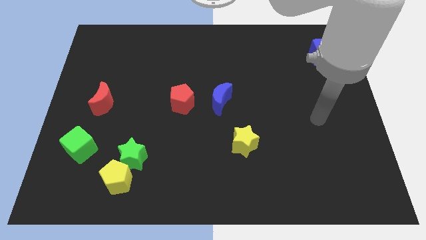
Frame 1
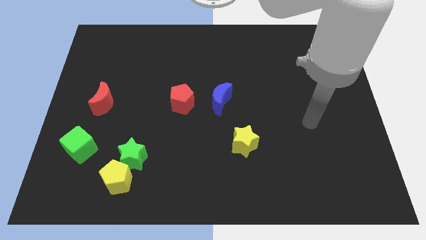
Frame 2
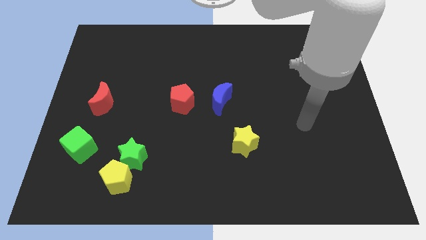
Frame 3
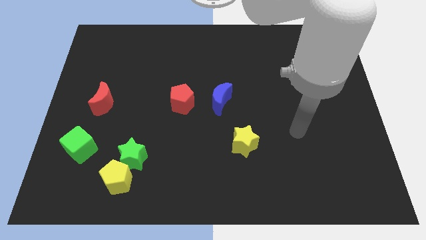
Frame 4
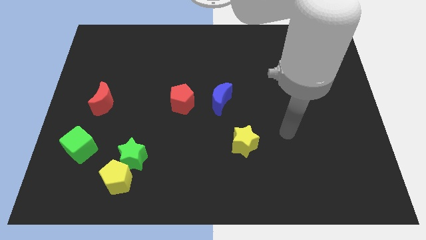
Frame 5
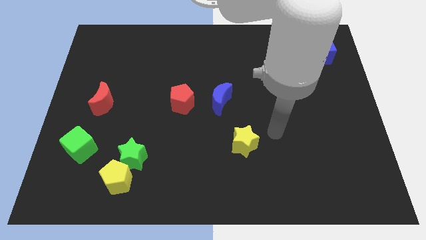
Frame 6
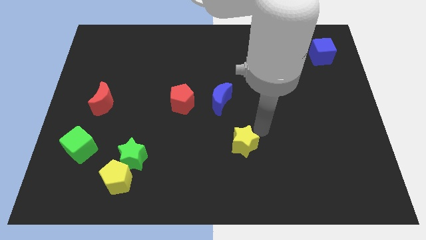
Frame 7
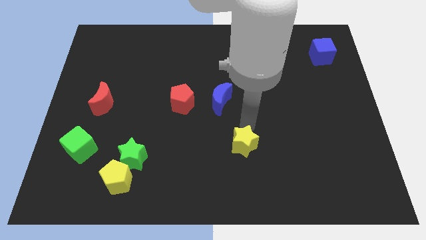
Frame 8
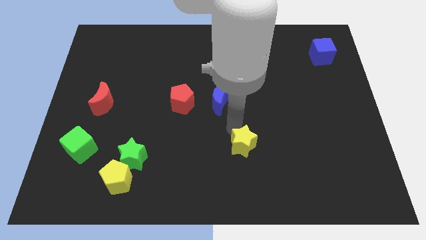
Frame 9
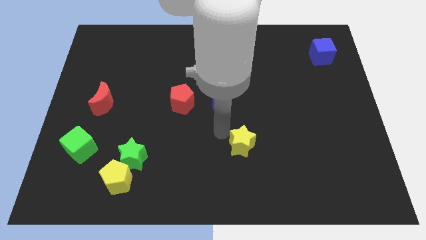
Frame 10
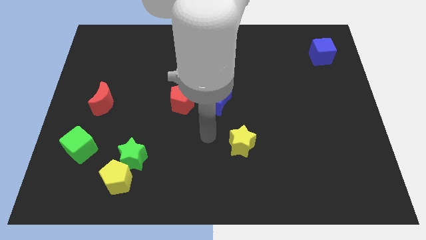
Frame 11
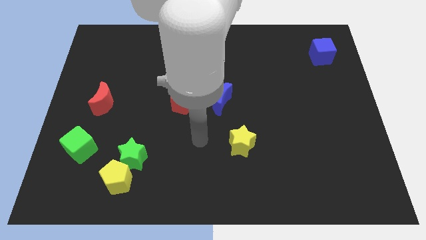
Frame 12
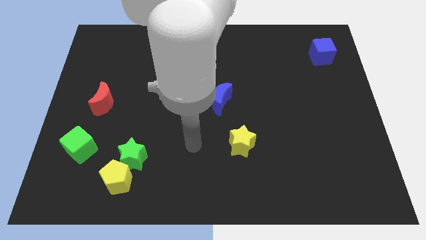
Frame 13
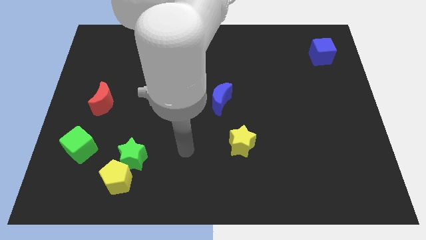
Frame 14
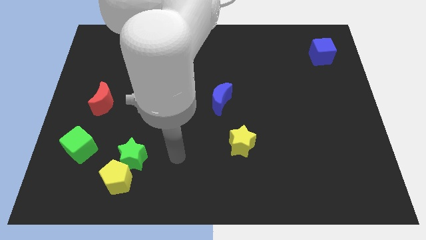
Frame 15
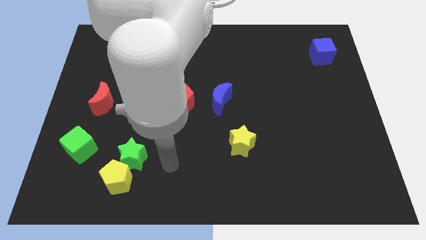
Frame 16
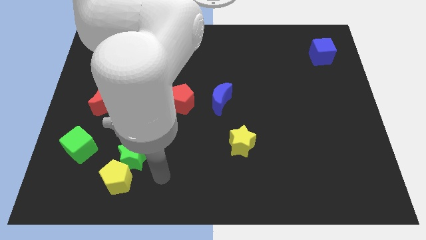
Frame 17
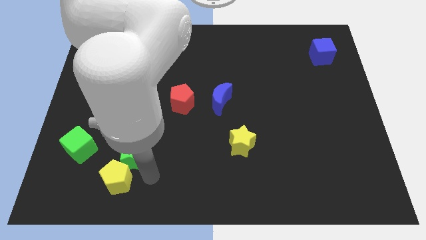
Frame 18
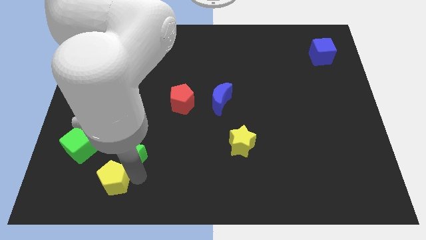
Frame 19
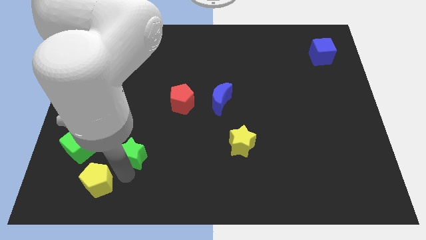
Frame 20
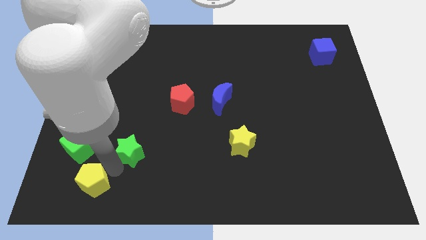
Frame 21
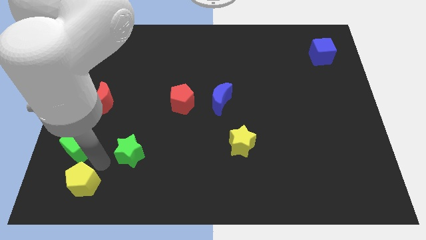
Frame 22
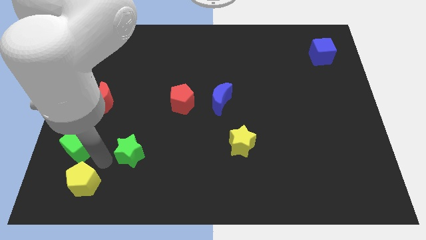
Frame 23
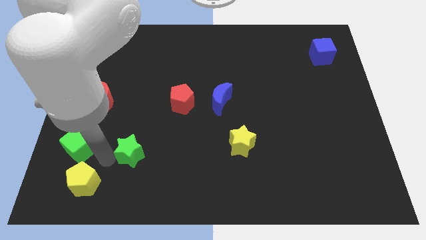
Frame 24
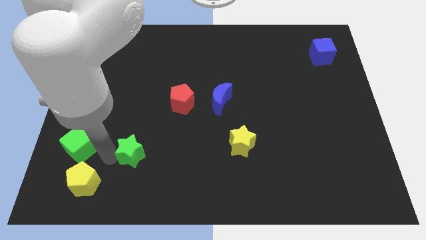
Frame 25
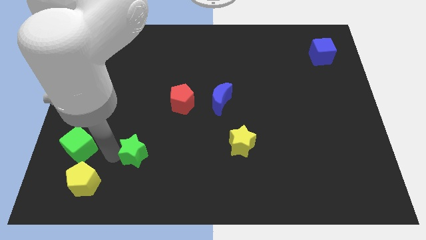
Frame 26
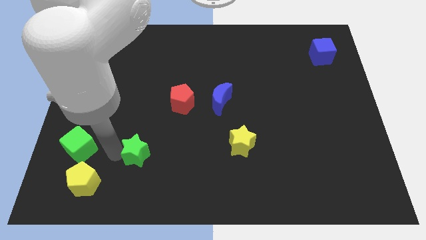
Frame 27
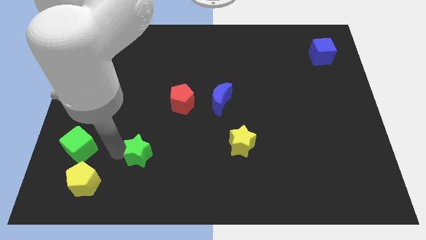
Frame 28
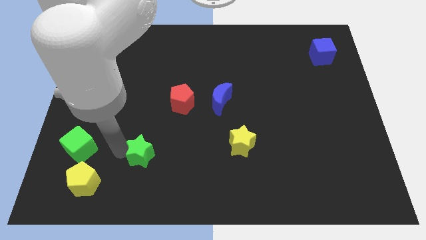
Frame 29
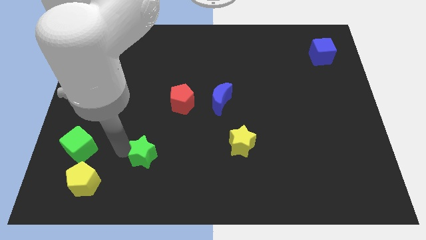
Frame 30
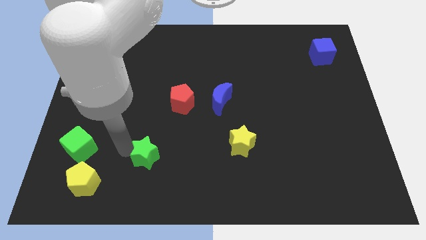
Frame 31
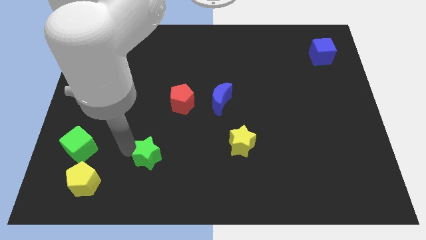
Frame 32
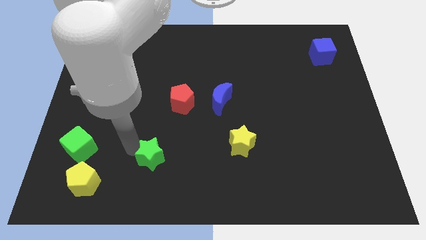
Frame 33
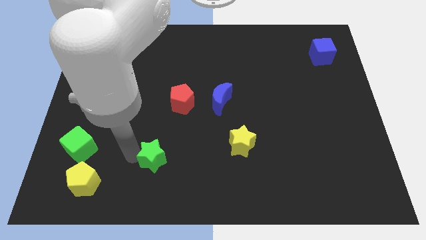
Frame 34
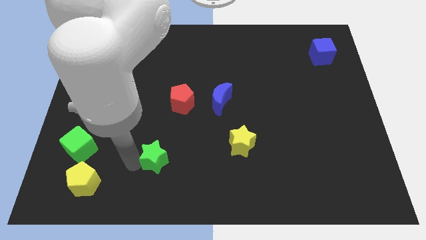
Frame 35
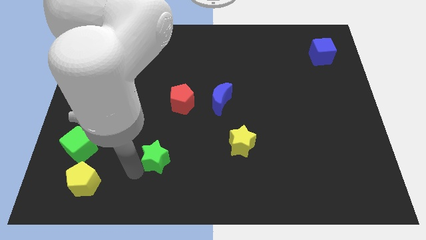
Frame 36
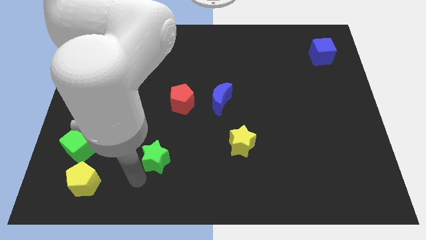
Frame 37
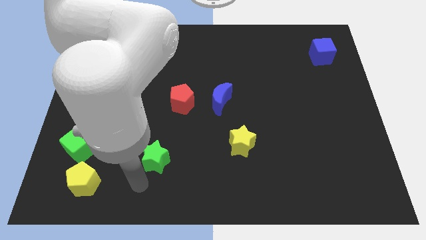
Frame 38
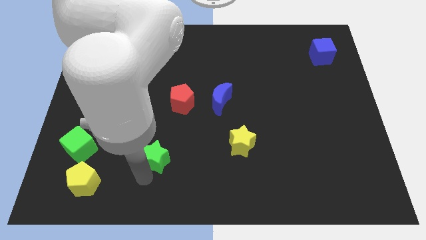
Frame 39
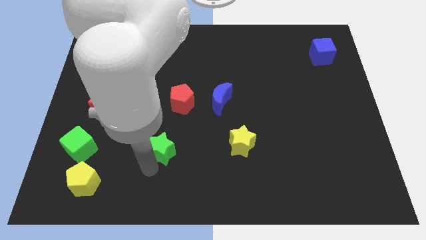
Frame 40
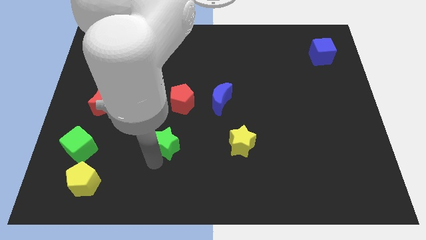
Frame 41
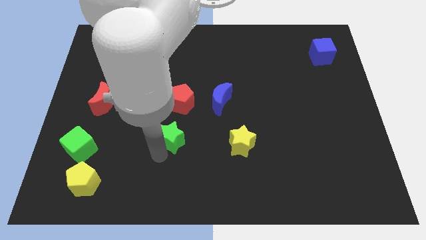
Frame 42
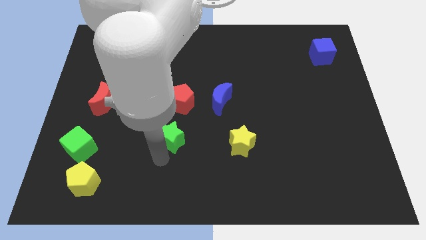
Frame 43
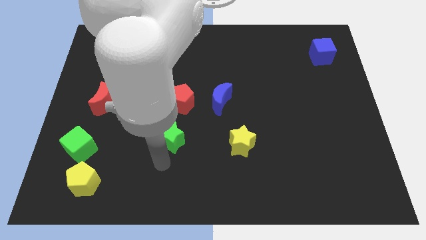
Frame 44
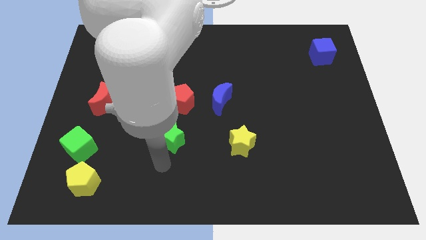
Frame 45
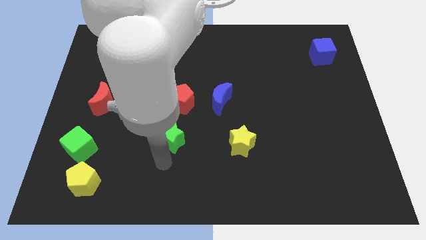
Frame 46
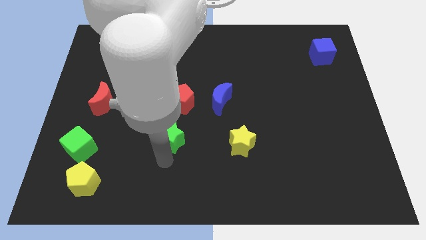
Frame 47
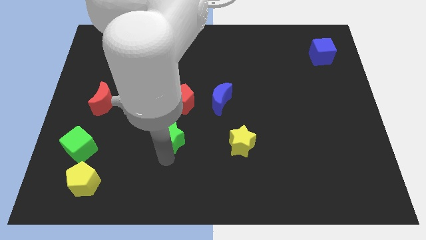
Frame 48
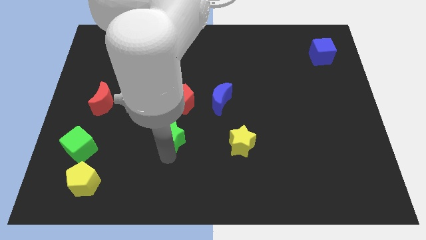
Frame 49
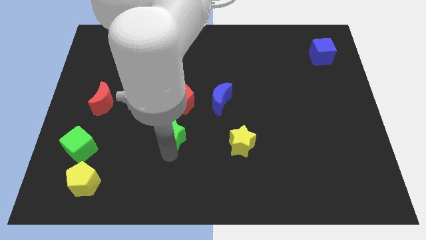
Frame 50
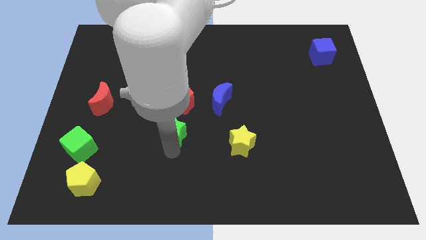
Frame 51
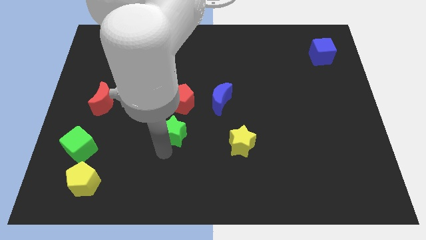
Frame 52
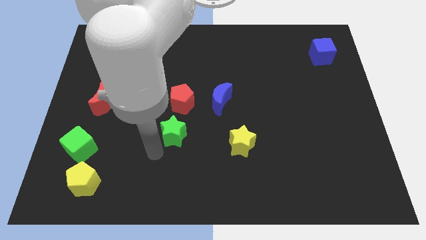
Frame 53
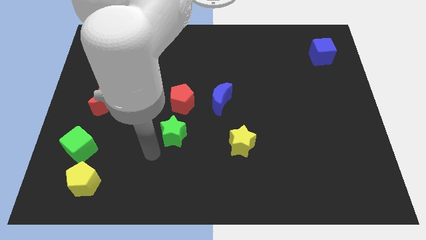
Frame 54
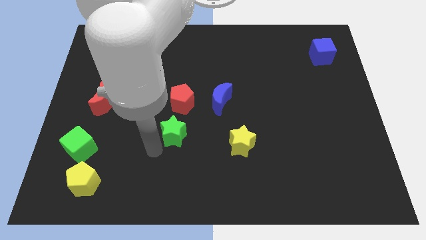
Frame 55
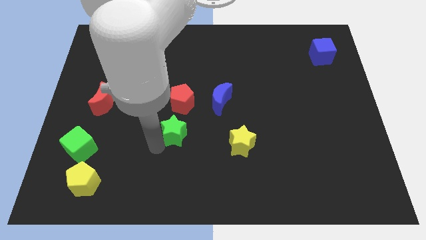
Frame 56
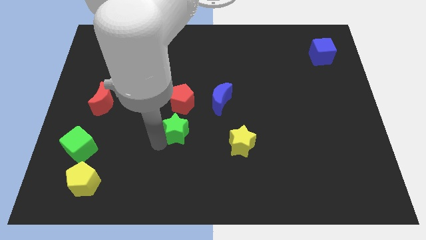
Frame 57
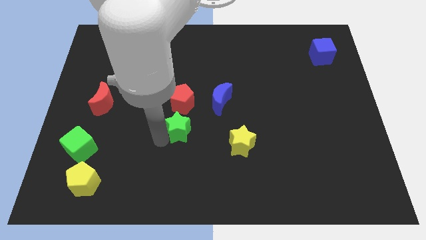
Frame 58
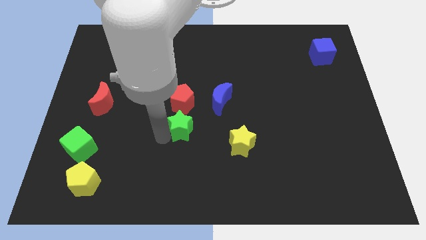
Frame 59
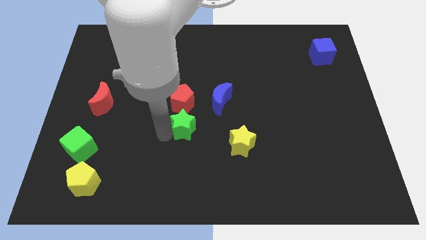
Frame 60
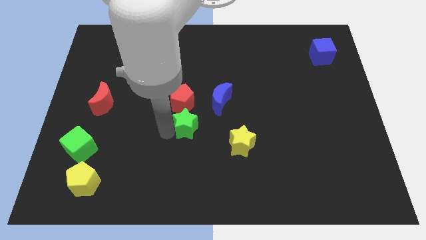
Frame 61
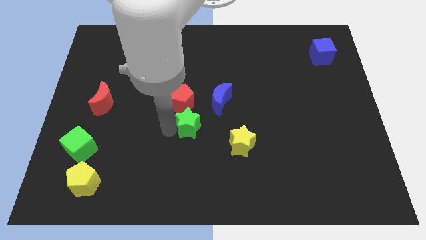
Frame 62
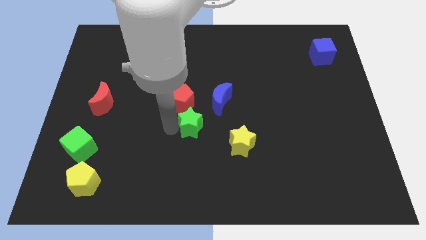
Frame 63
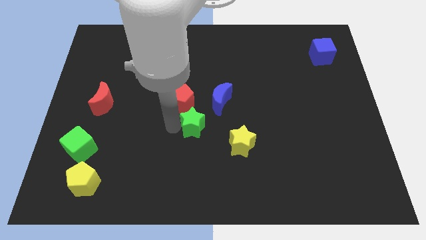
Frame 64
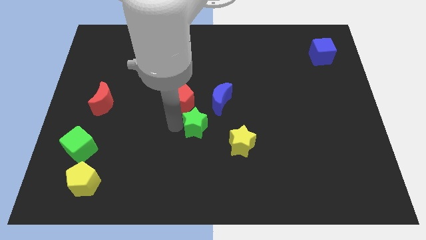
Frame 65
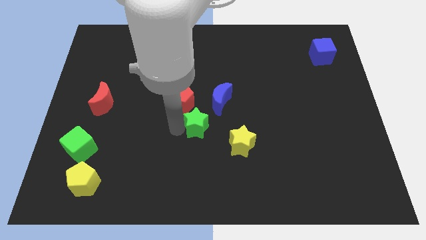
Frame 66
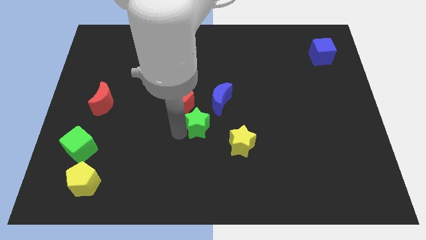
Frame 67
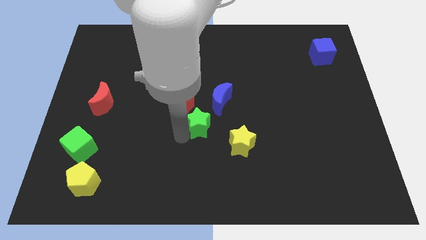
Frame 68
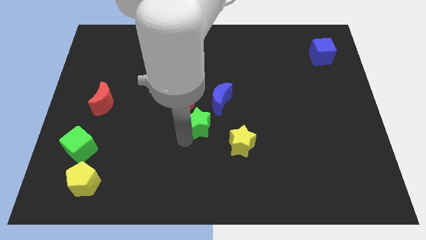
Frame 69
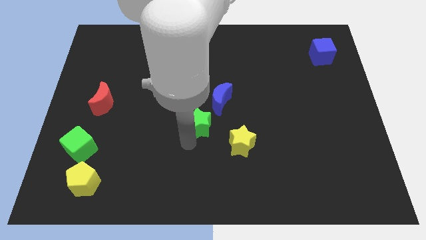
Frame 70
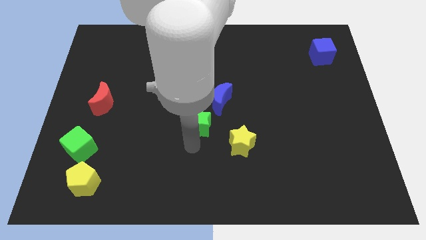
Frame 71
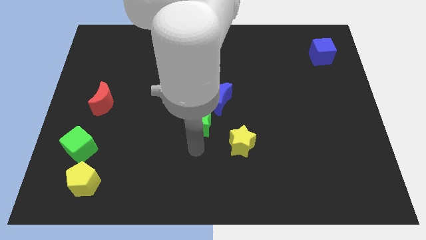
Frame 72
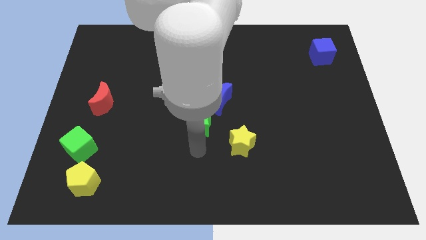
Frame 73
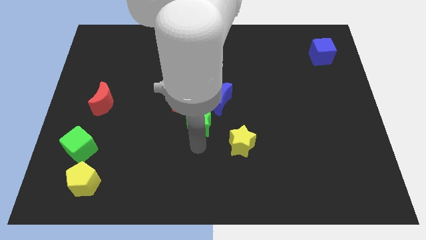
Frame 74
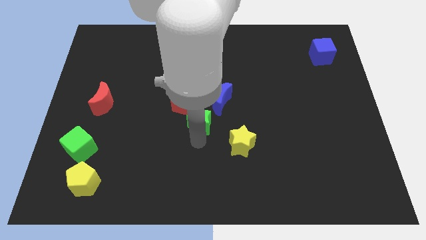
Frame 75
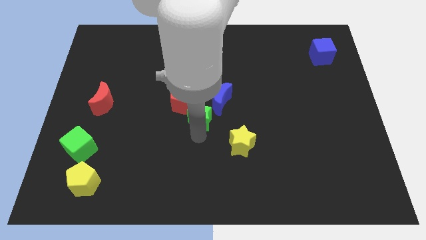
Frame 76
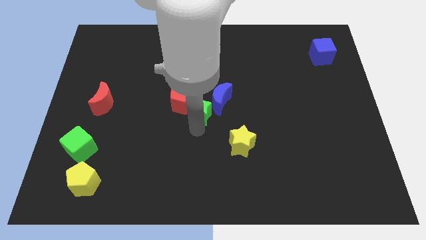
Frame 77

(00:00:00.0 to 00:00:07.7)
push the green star to the blue moon
